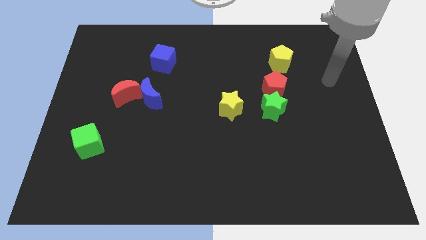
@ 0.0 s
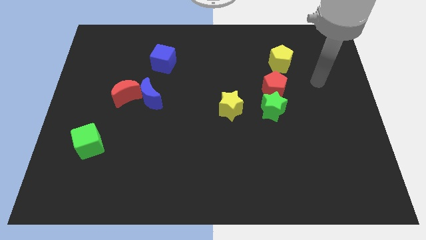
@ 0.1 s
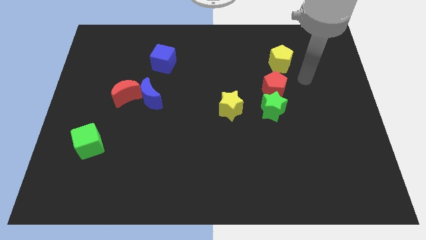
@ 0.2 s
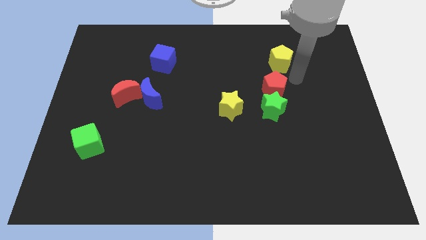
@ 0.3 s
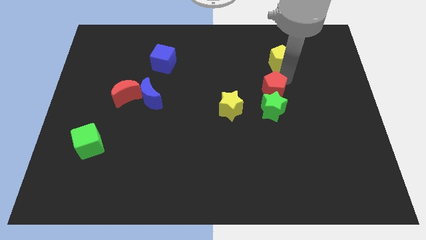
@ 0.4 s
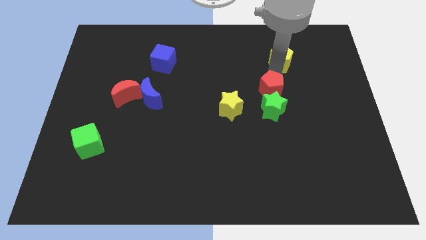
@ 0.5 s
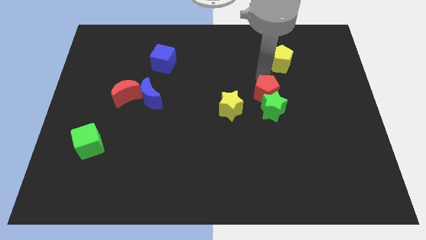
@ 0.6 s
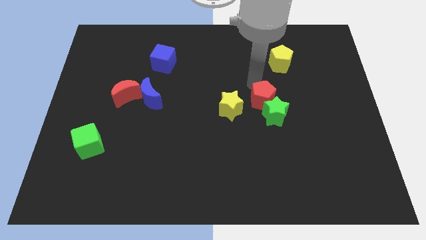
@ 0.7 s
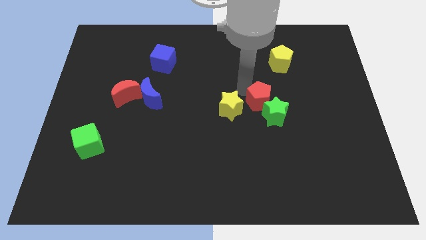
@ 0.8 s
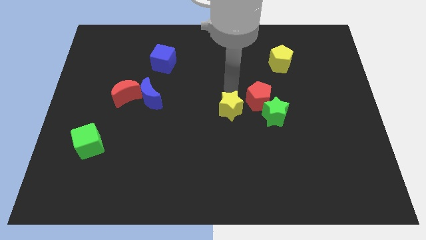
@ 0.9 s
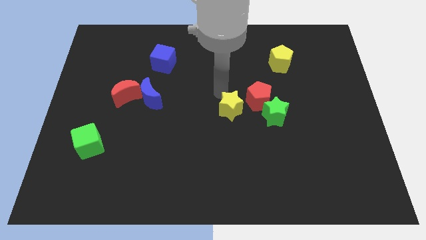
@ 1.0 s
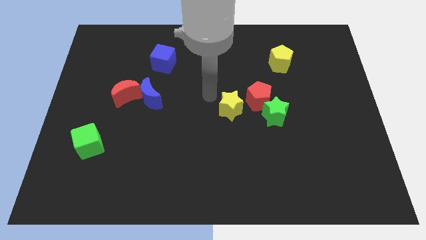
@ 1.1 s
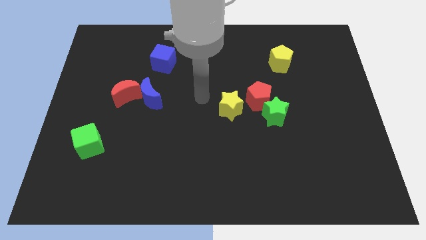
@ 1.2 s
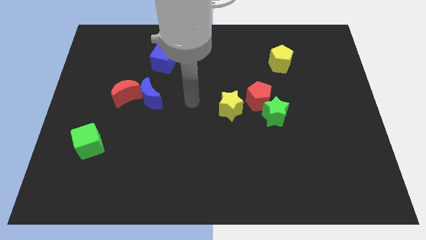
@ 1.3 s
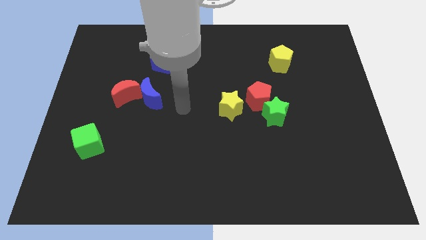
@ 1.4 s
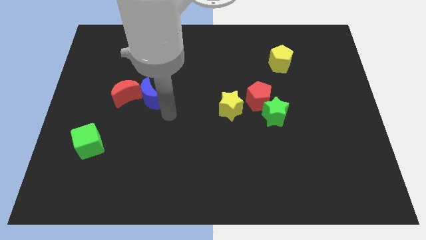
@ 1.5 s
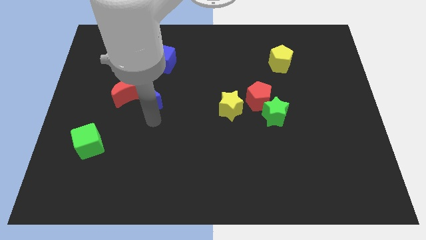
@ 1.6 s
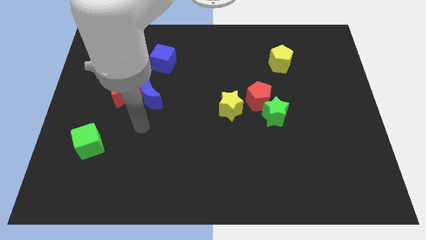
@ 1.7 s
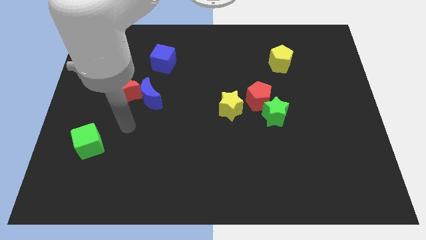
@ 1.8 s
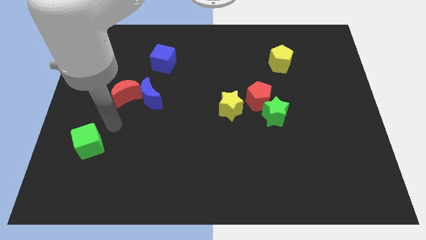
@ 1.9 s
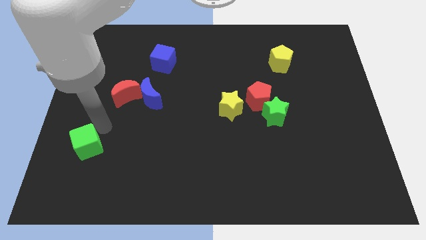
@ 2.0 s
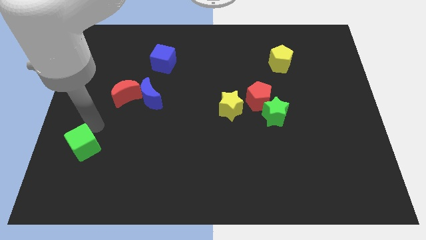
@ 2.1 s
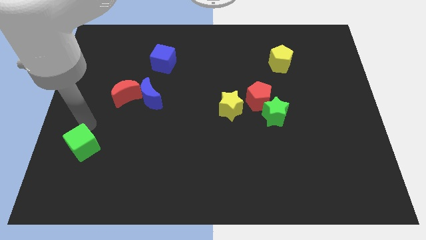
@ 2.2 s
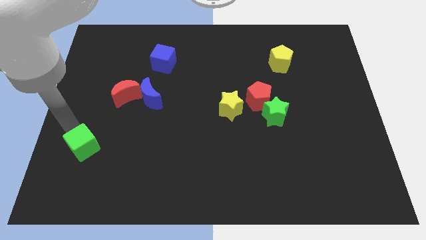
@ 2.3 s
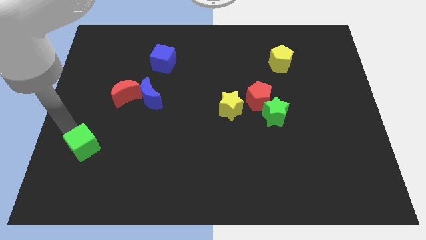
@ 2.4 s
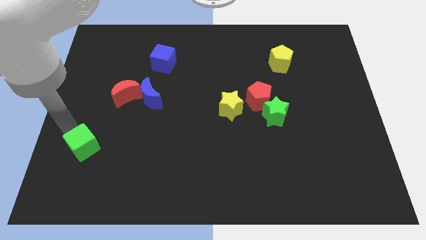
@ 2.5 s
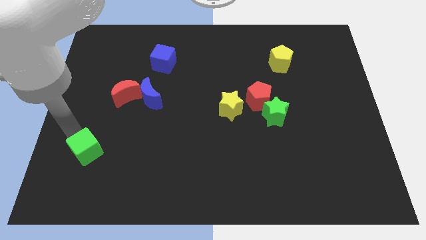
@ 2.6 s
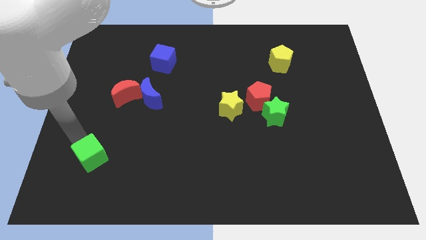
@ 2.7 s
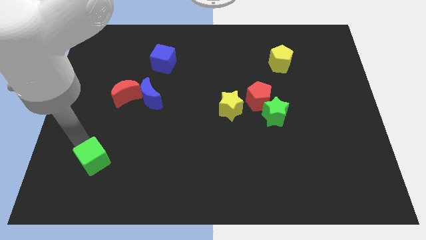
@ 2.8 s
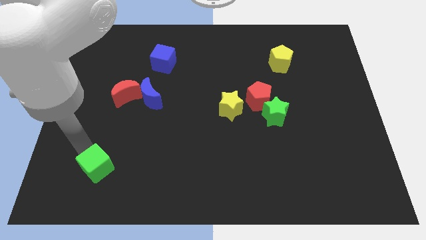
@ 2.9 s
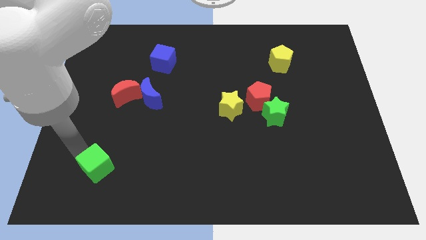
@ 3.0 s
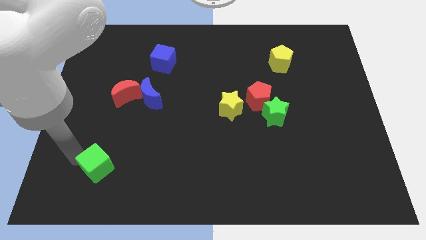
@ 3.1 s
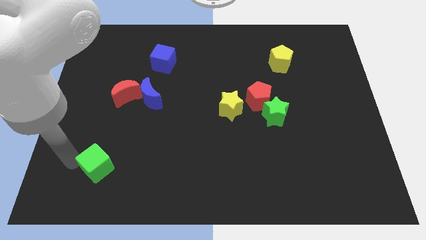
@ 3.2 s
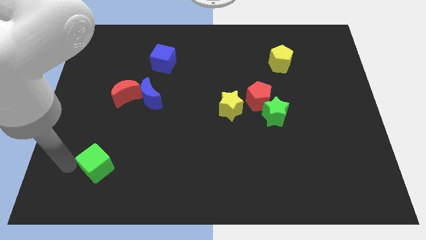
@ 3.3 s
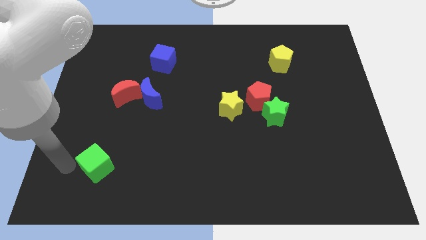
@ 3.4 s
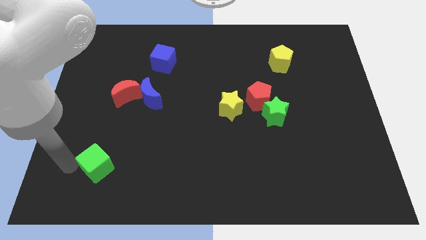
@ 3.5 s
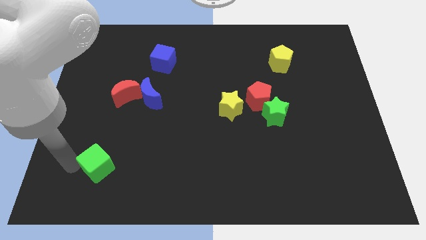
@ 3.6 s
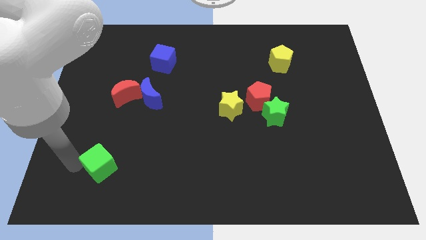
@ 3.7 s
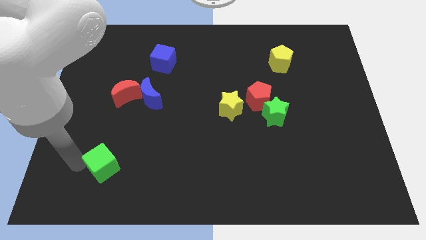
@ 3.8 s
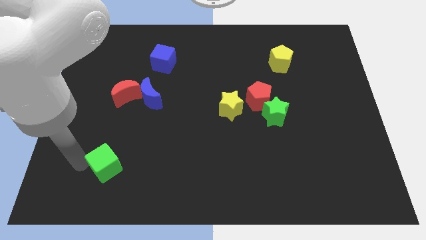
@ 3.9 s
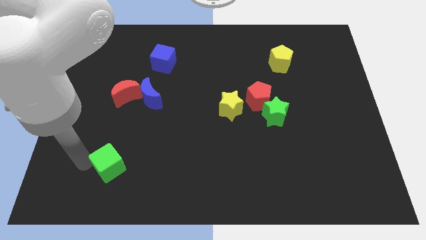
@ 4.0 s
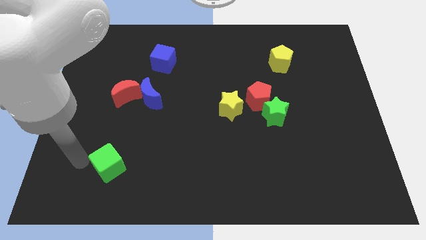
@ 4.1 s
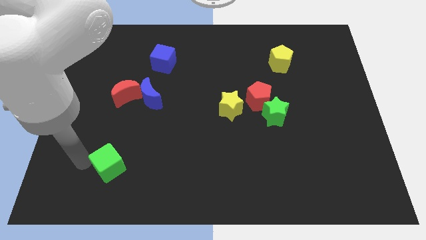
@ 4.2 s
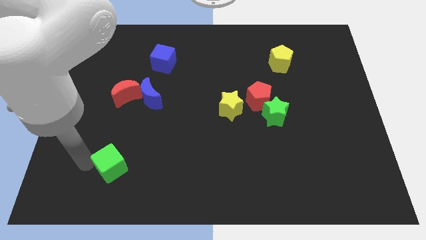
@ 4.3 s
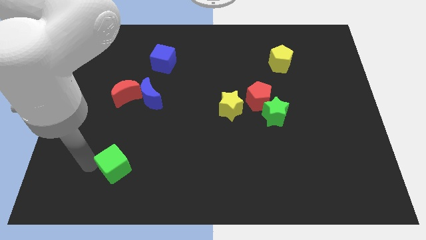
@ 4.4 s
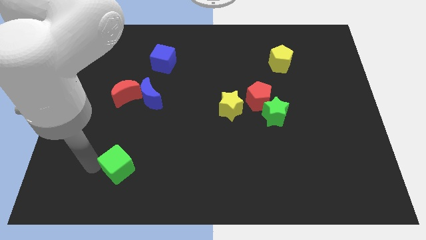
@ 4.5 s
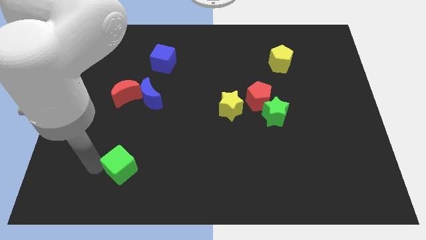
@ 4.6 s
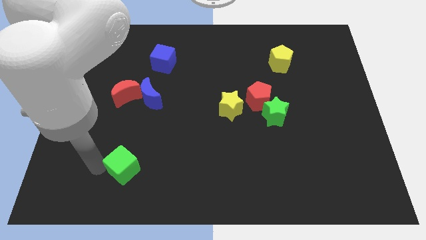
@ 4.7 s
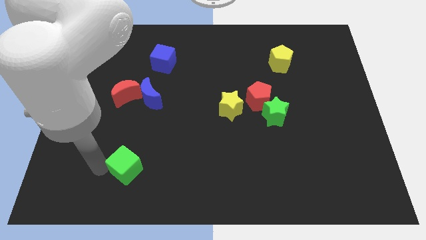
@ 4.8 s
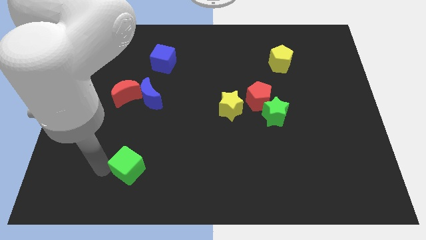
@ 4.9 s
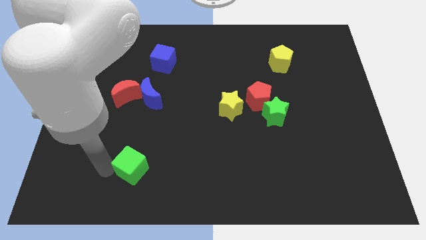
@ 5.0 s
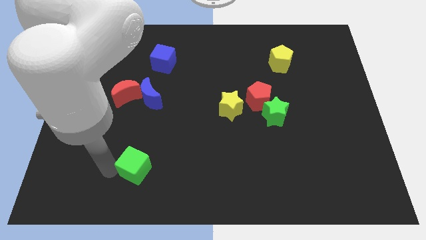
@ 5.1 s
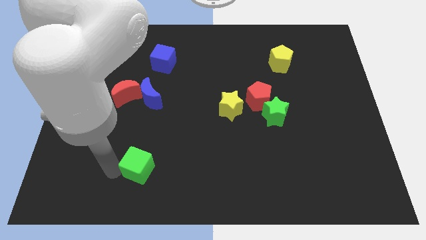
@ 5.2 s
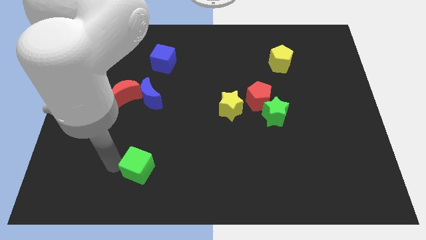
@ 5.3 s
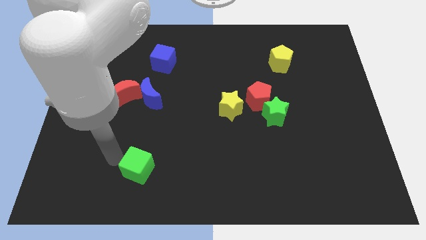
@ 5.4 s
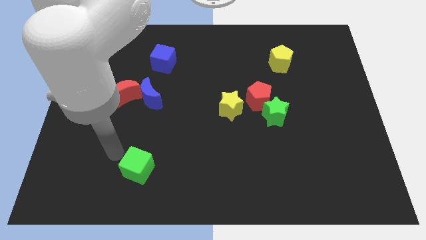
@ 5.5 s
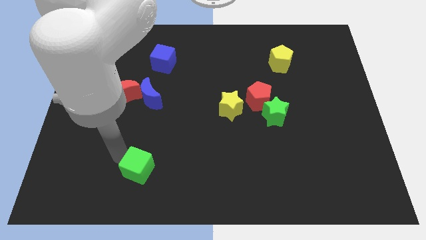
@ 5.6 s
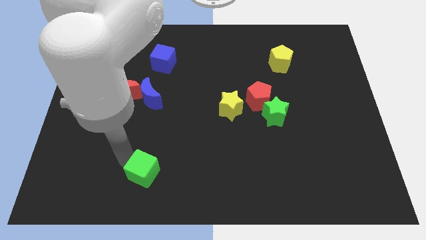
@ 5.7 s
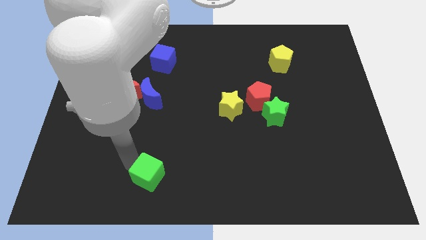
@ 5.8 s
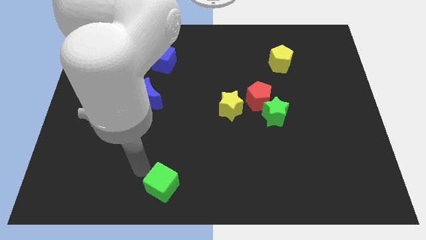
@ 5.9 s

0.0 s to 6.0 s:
slide the green cube to the bottom

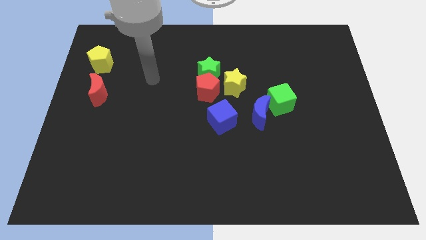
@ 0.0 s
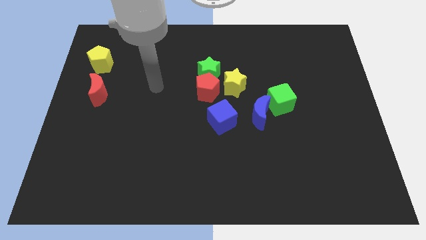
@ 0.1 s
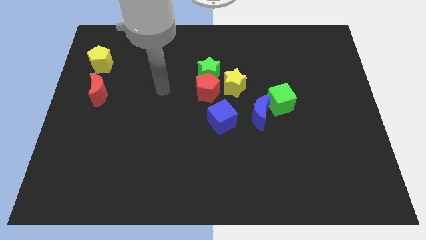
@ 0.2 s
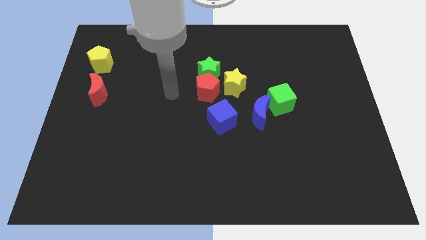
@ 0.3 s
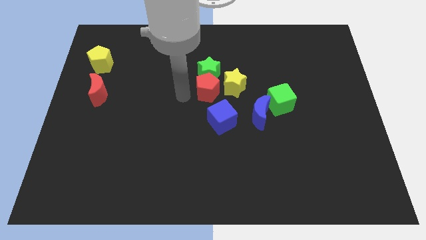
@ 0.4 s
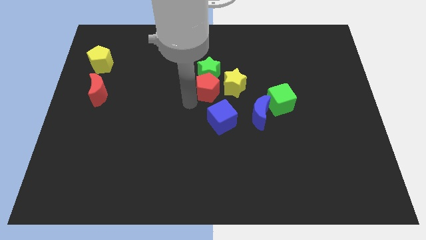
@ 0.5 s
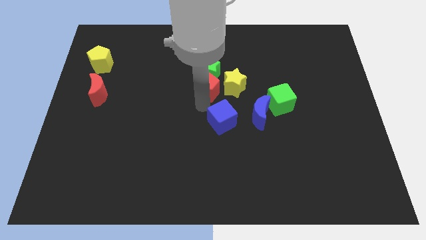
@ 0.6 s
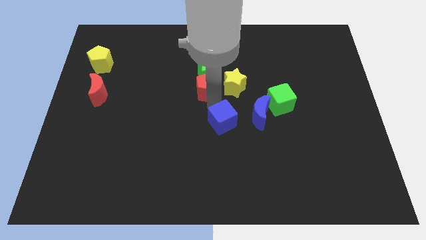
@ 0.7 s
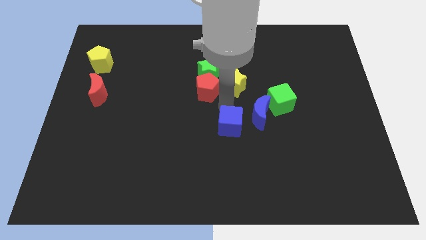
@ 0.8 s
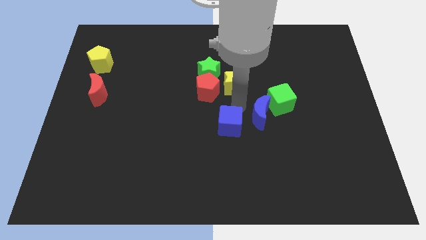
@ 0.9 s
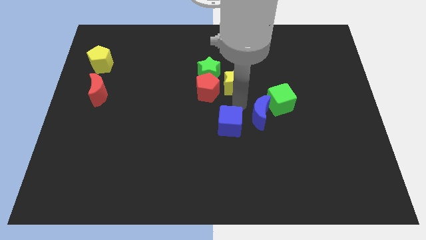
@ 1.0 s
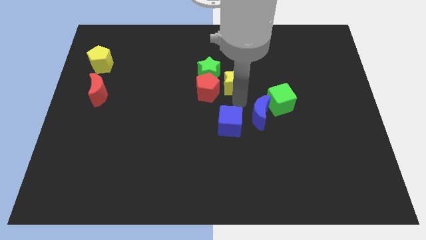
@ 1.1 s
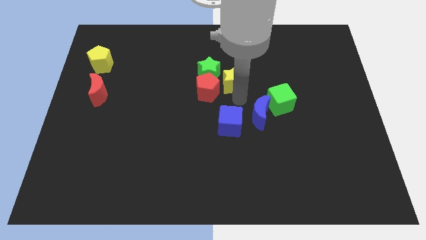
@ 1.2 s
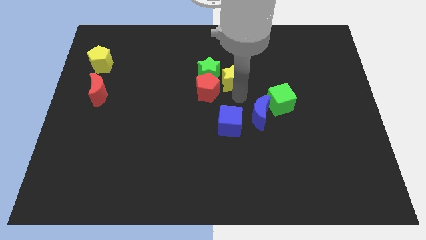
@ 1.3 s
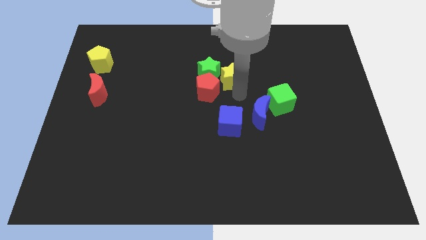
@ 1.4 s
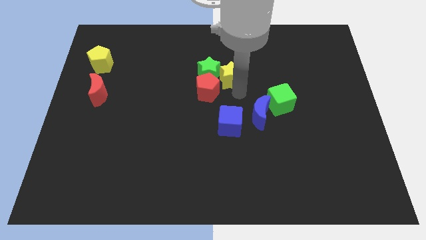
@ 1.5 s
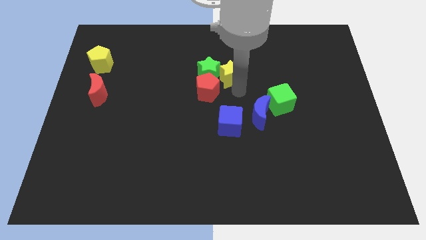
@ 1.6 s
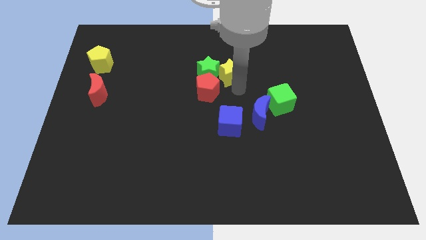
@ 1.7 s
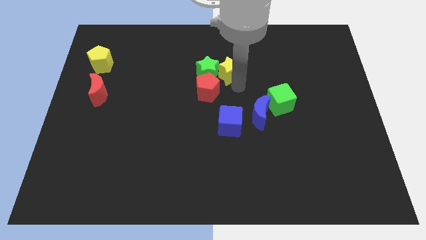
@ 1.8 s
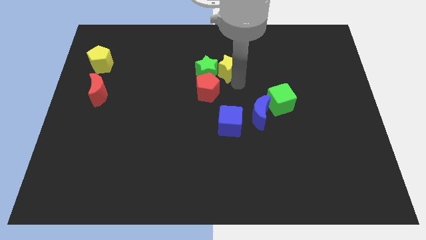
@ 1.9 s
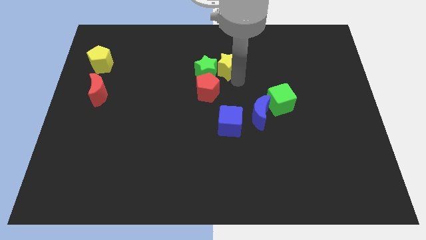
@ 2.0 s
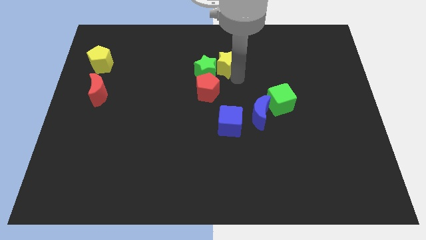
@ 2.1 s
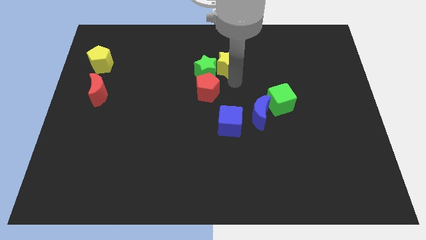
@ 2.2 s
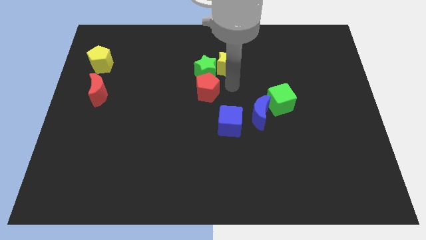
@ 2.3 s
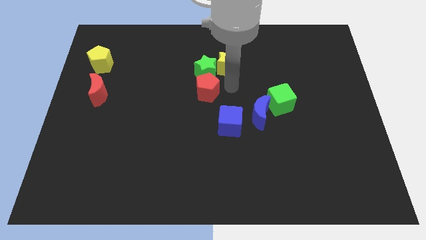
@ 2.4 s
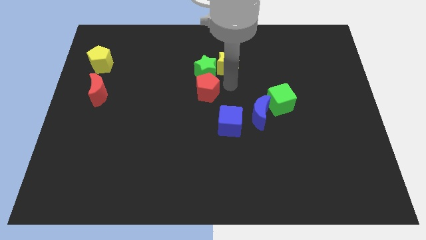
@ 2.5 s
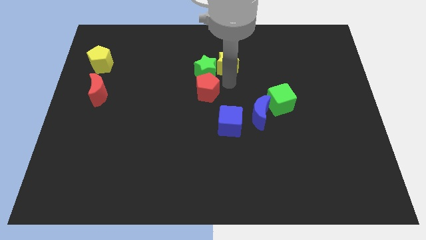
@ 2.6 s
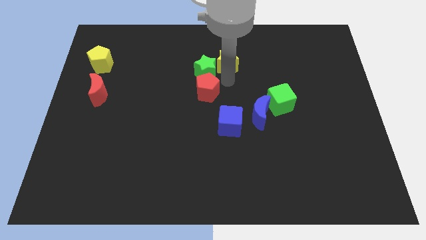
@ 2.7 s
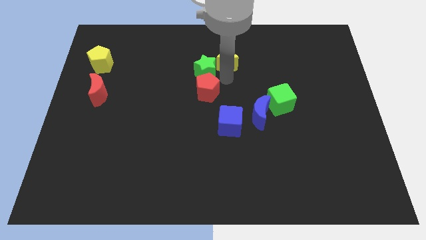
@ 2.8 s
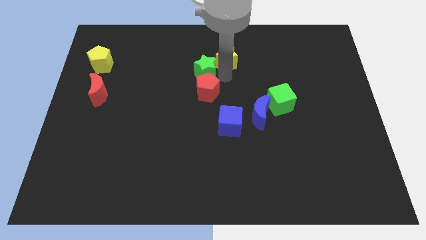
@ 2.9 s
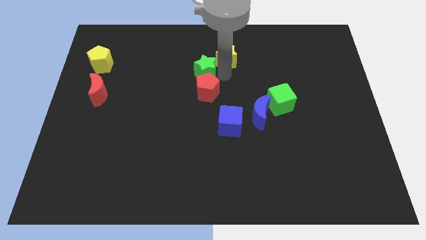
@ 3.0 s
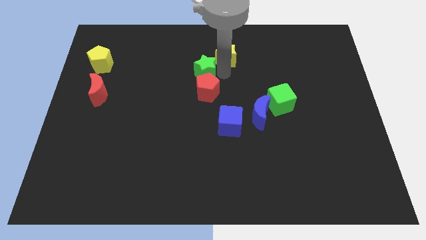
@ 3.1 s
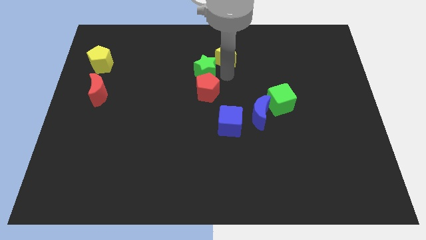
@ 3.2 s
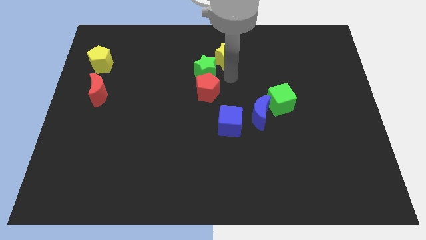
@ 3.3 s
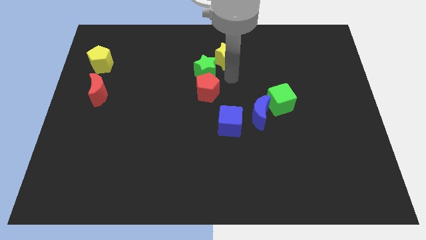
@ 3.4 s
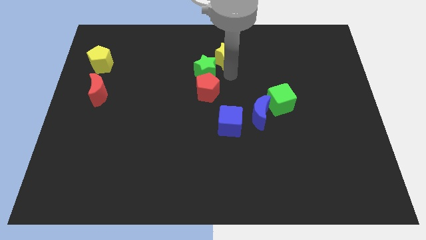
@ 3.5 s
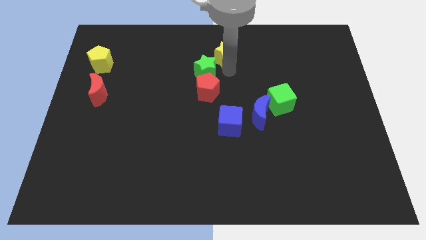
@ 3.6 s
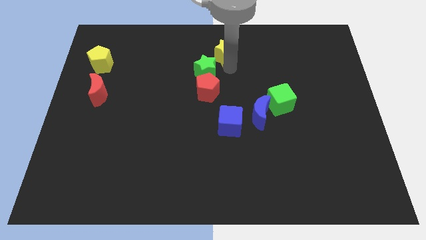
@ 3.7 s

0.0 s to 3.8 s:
move the yellow star to the towards your base
